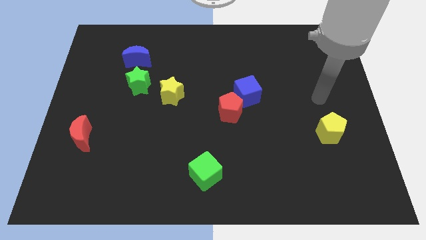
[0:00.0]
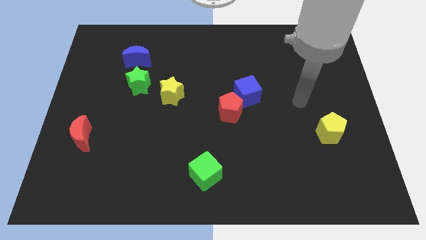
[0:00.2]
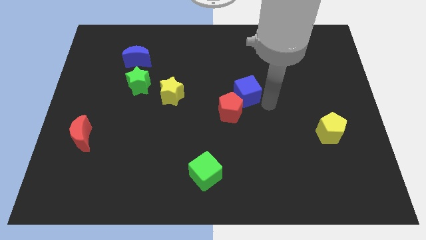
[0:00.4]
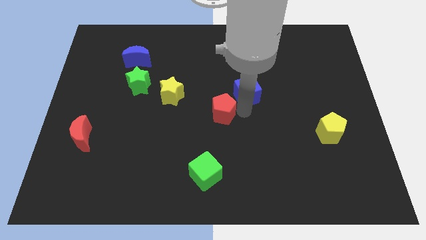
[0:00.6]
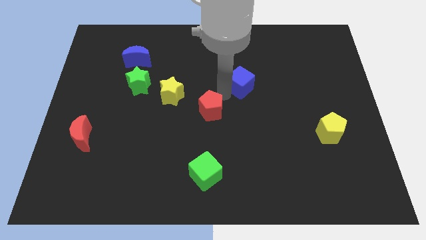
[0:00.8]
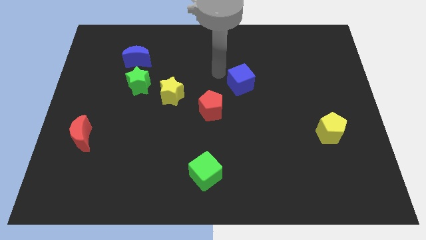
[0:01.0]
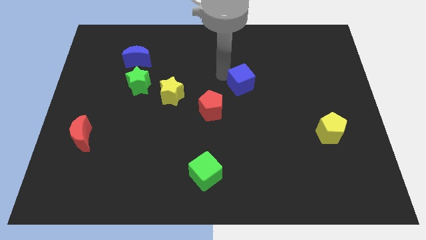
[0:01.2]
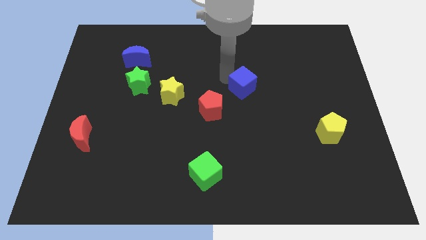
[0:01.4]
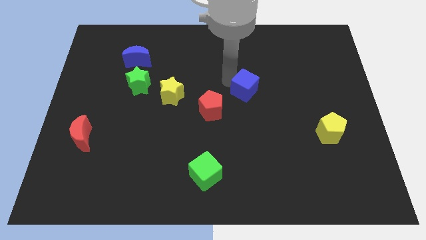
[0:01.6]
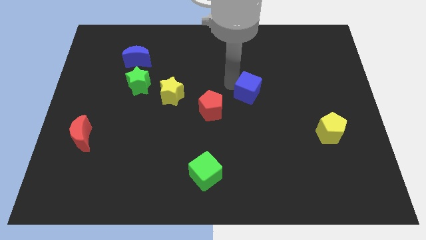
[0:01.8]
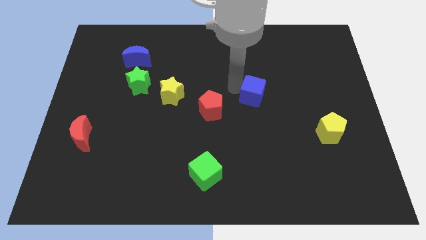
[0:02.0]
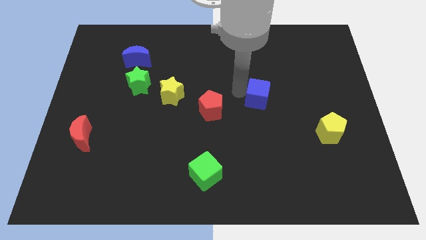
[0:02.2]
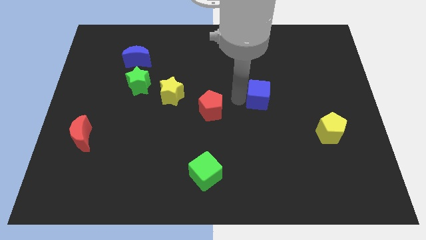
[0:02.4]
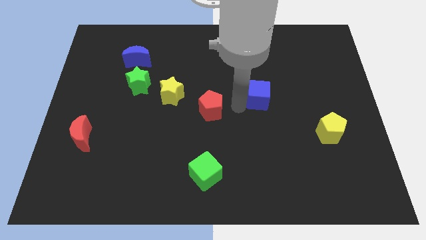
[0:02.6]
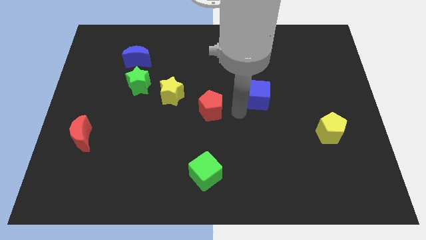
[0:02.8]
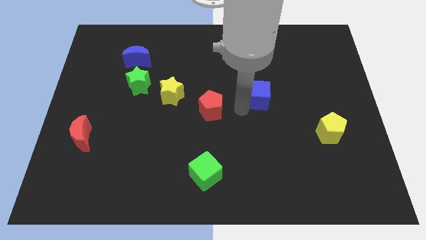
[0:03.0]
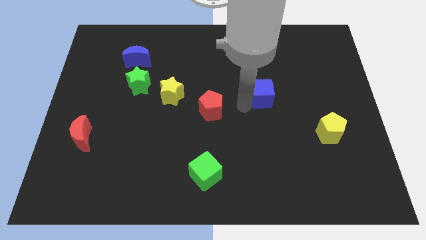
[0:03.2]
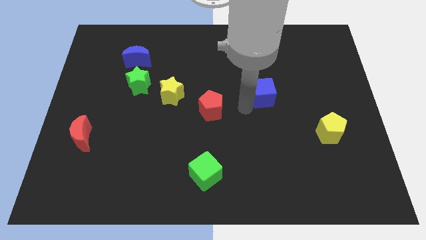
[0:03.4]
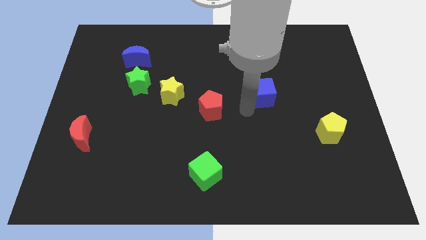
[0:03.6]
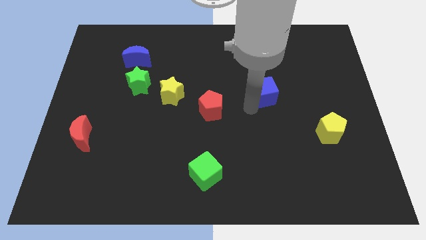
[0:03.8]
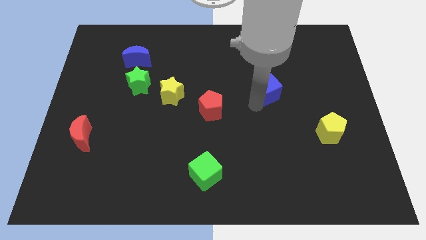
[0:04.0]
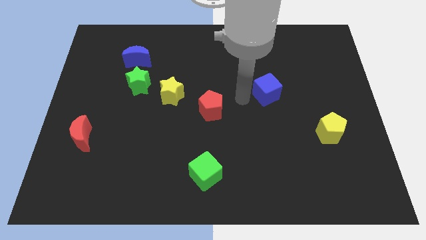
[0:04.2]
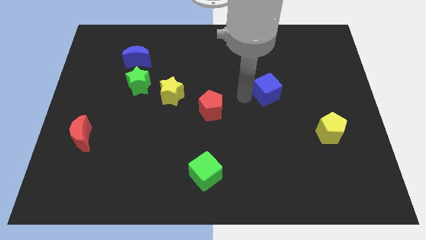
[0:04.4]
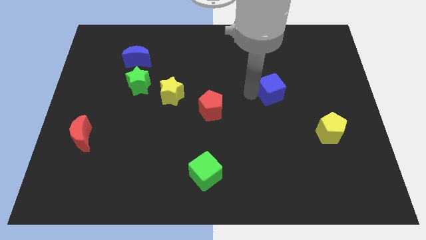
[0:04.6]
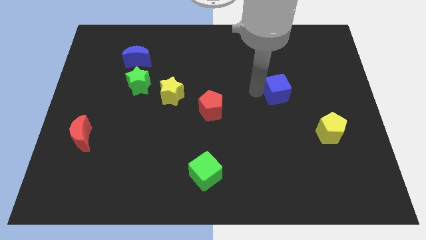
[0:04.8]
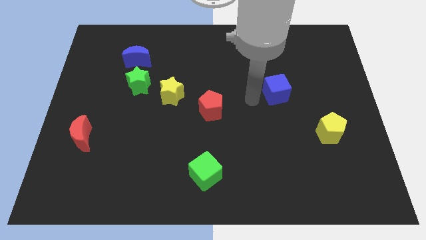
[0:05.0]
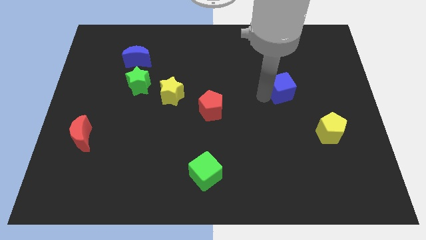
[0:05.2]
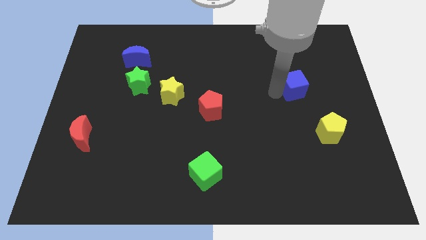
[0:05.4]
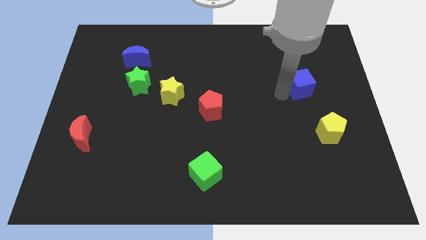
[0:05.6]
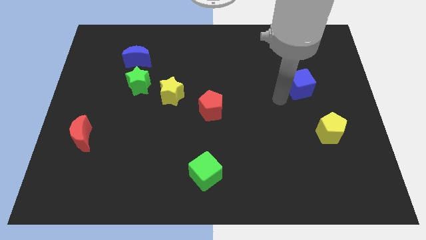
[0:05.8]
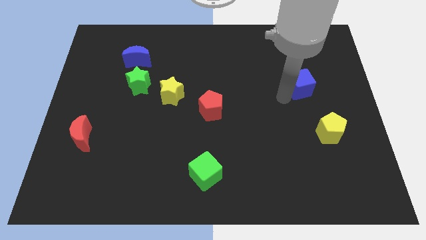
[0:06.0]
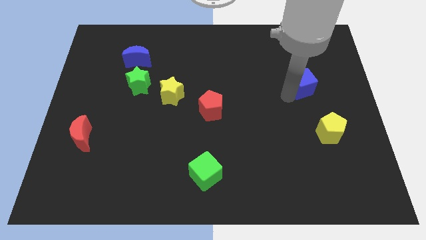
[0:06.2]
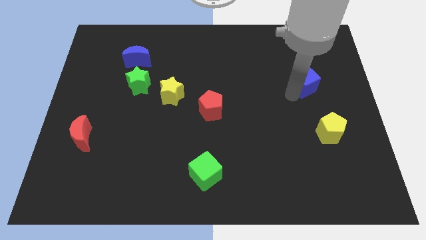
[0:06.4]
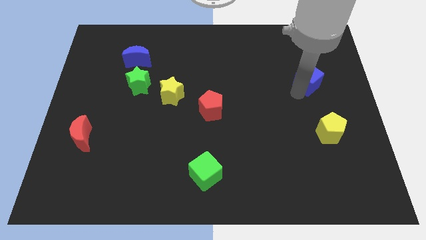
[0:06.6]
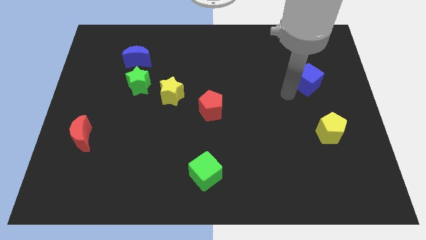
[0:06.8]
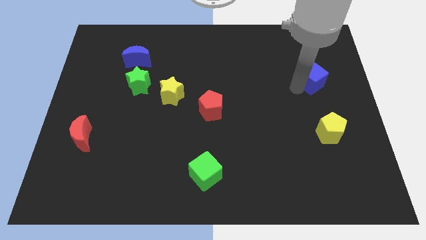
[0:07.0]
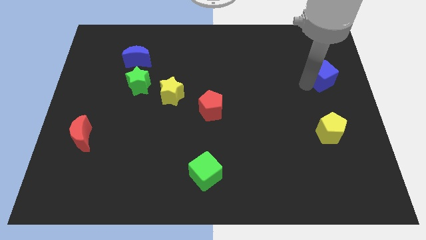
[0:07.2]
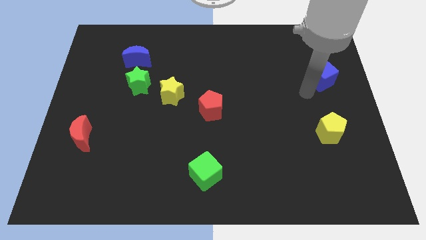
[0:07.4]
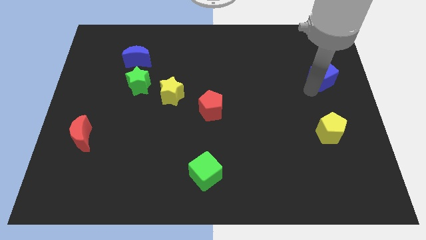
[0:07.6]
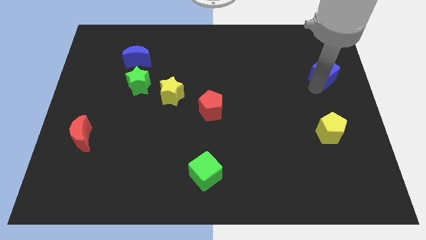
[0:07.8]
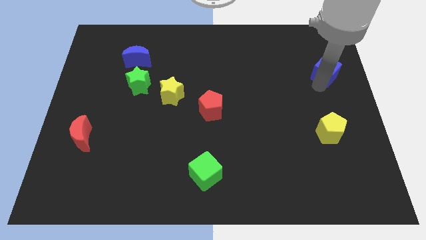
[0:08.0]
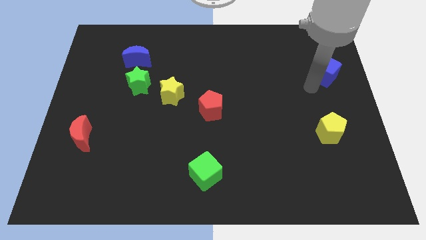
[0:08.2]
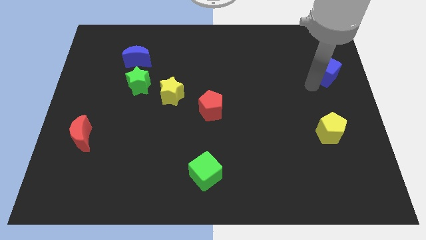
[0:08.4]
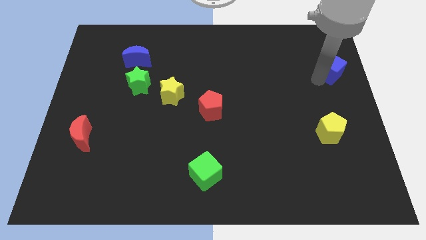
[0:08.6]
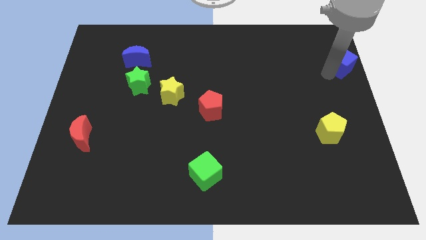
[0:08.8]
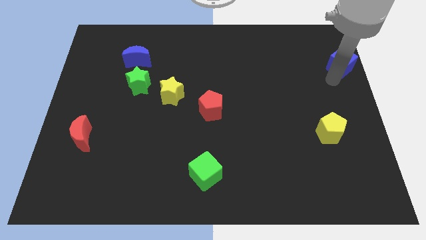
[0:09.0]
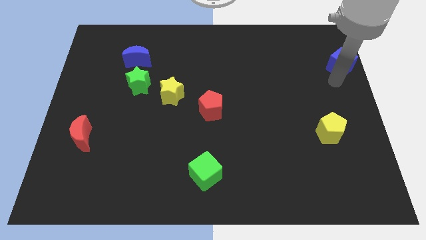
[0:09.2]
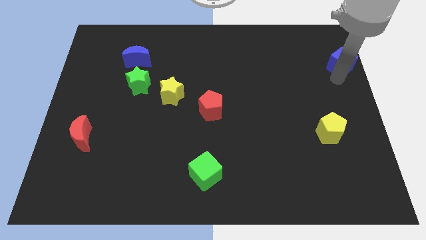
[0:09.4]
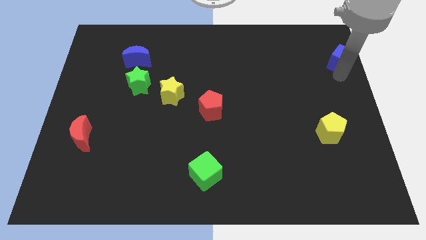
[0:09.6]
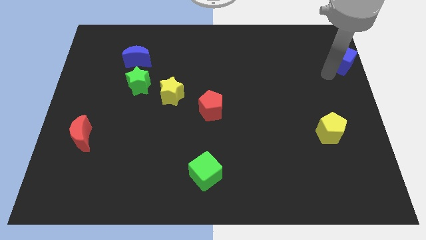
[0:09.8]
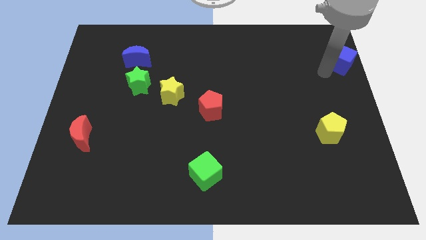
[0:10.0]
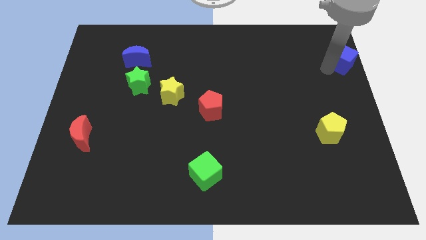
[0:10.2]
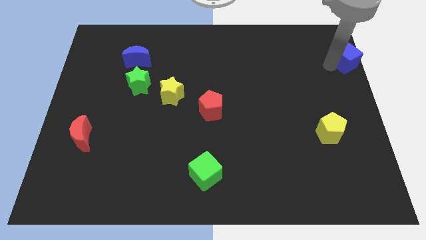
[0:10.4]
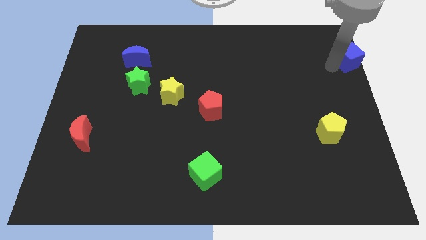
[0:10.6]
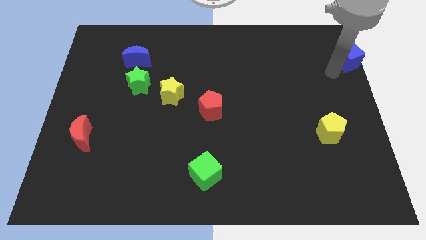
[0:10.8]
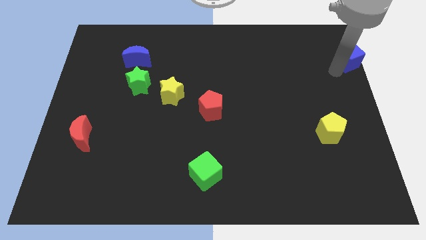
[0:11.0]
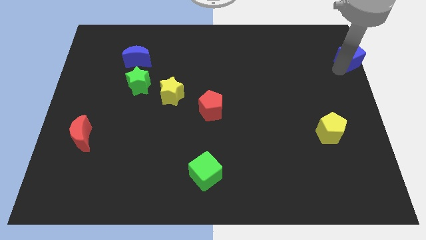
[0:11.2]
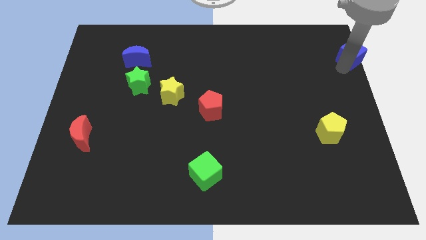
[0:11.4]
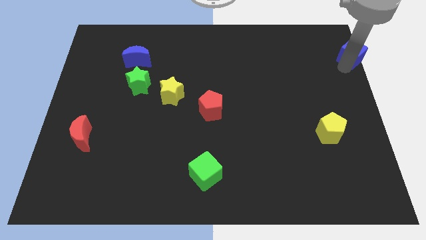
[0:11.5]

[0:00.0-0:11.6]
move the blue cube to the upper right corner

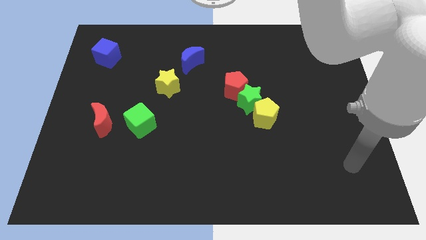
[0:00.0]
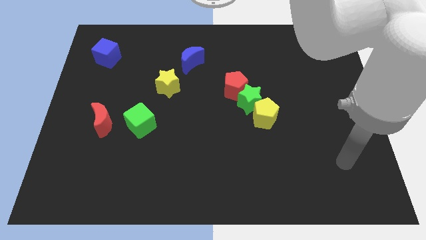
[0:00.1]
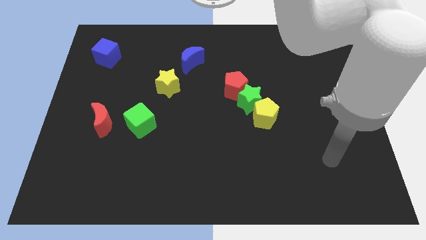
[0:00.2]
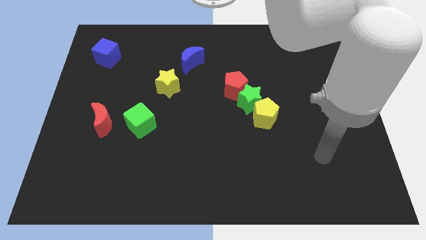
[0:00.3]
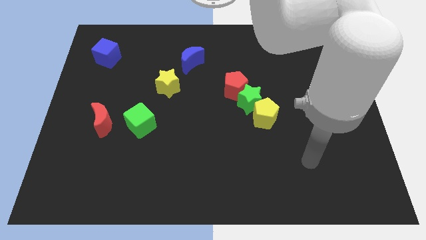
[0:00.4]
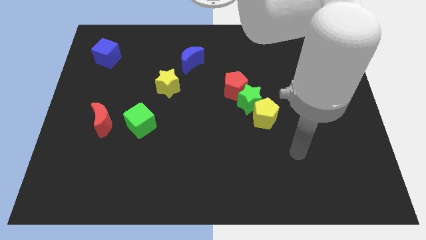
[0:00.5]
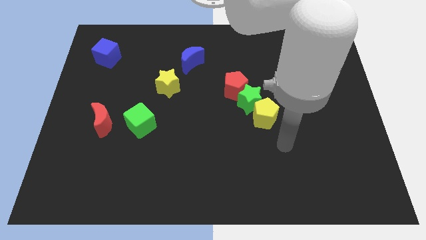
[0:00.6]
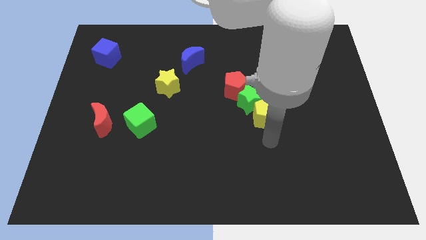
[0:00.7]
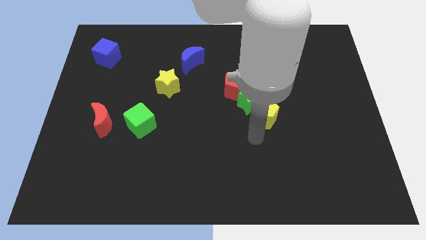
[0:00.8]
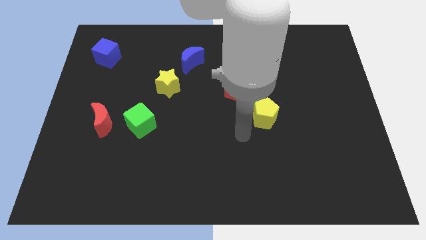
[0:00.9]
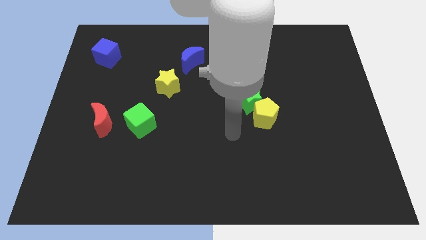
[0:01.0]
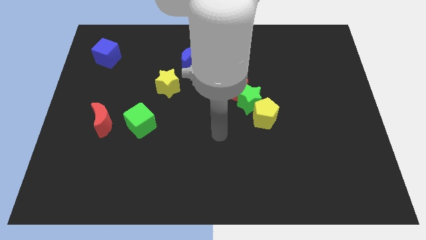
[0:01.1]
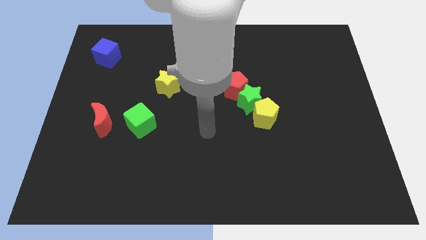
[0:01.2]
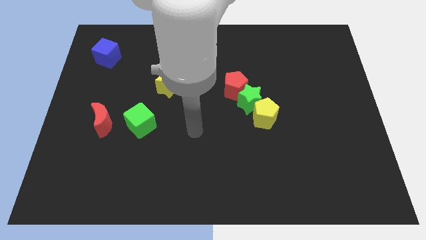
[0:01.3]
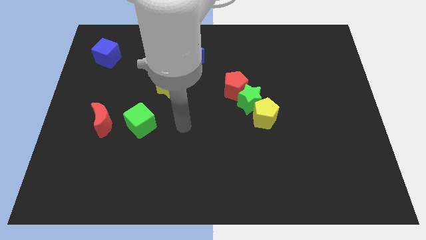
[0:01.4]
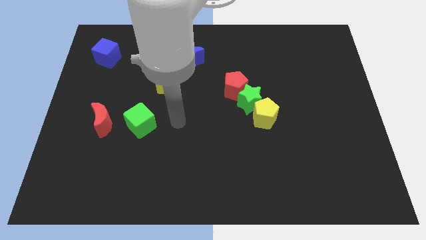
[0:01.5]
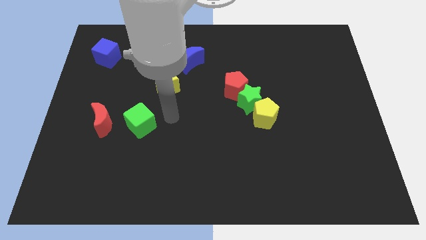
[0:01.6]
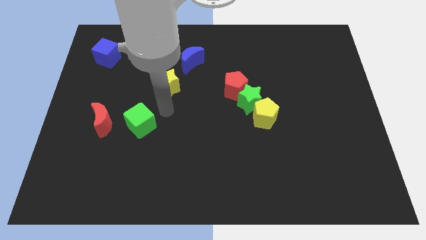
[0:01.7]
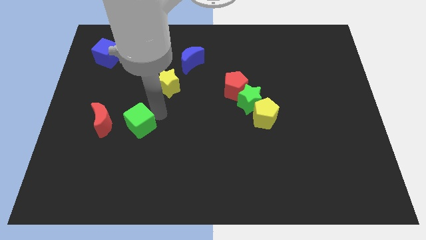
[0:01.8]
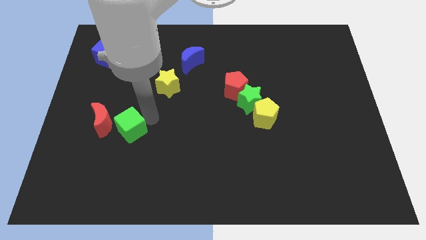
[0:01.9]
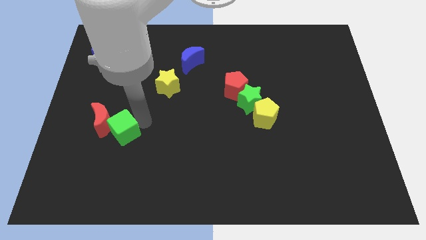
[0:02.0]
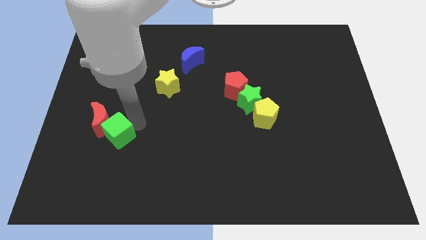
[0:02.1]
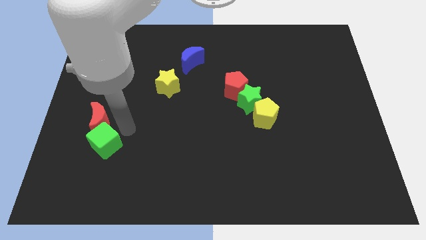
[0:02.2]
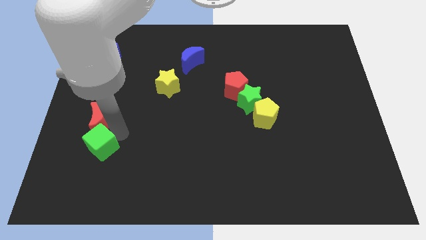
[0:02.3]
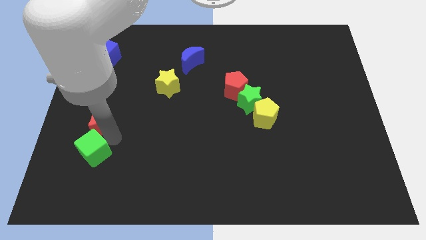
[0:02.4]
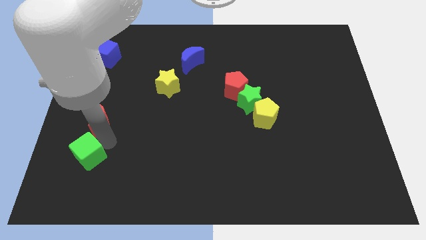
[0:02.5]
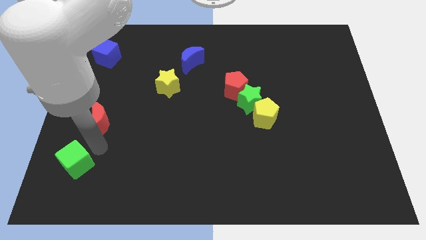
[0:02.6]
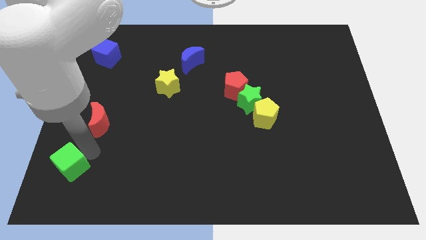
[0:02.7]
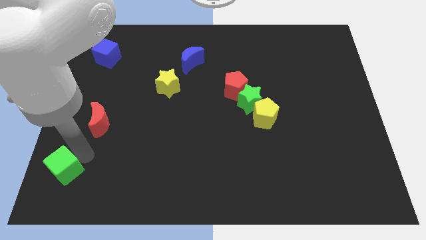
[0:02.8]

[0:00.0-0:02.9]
put the green cube to the bottom left of the board
